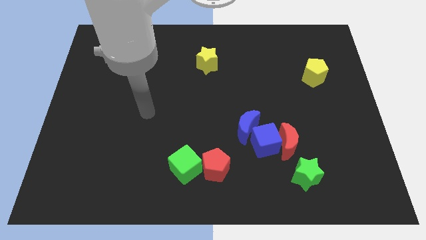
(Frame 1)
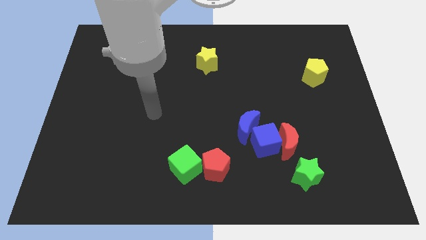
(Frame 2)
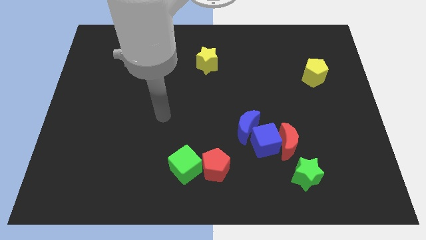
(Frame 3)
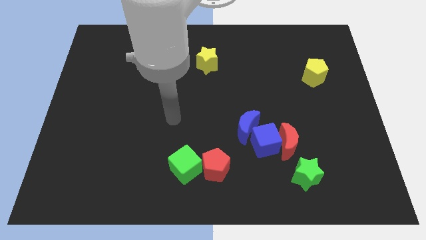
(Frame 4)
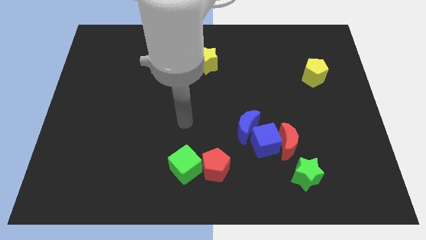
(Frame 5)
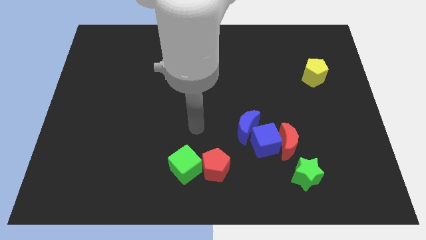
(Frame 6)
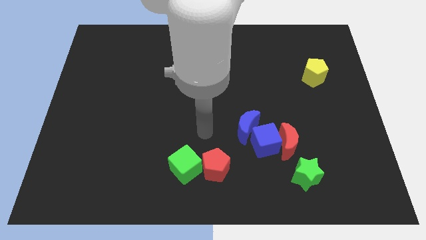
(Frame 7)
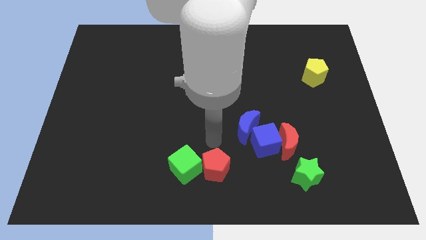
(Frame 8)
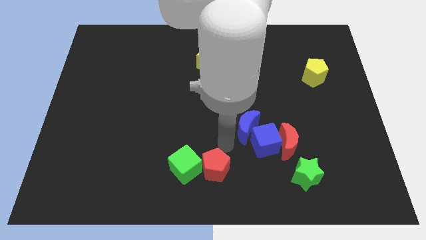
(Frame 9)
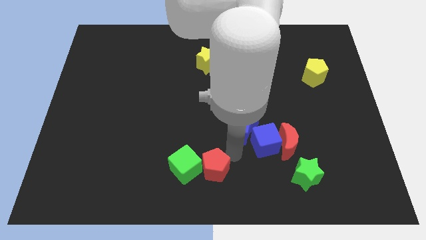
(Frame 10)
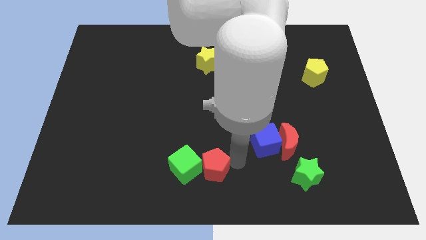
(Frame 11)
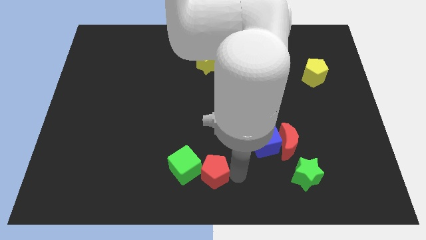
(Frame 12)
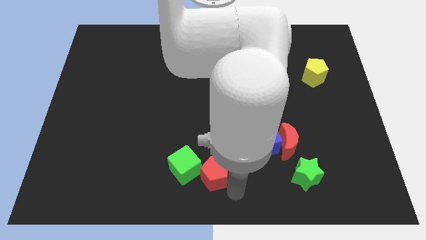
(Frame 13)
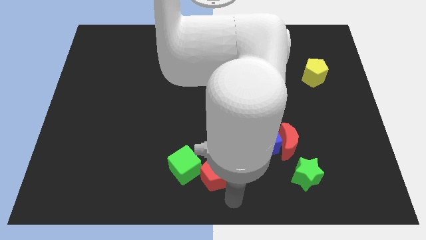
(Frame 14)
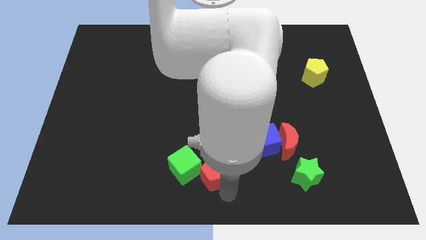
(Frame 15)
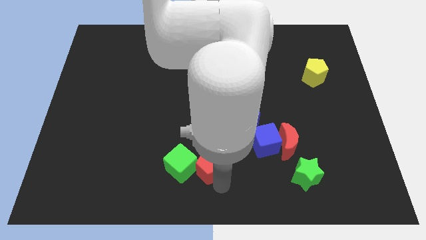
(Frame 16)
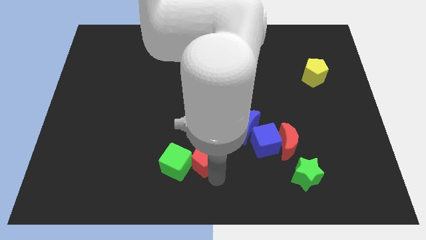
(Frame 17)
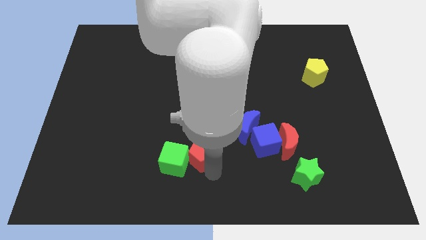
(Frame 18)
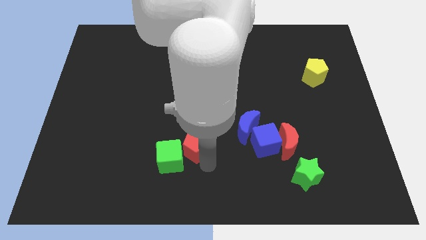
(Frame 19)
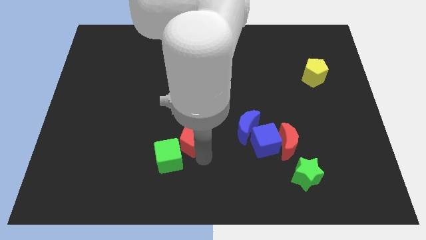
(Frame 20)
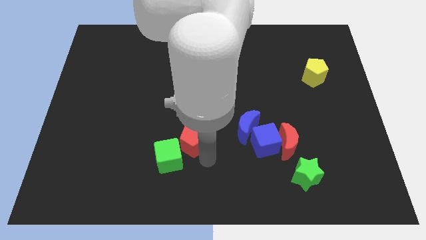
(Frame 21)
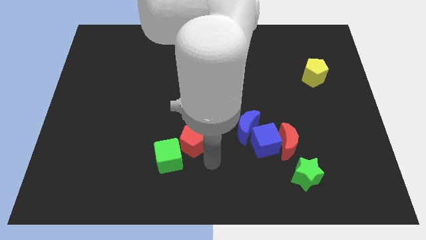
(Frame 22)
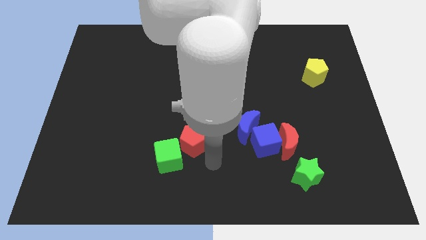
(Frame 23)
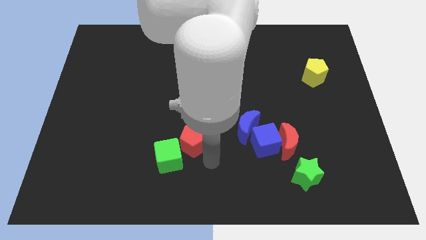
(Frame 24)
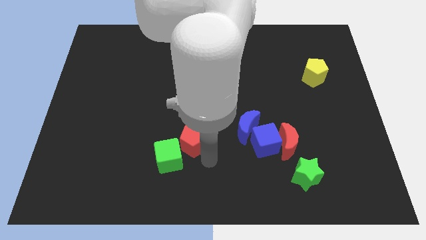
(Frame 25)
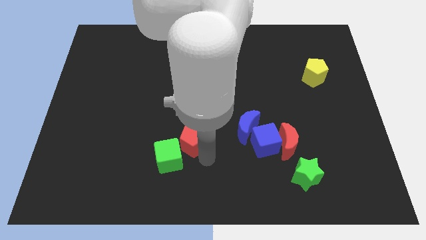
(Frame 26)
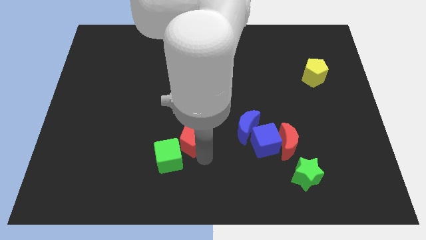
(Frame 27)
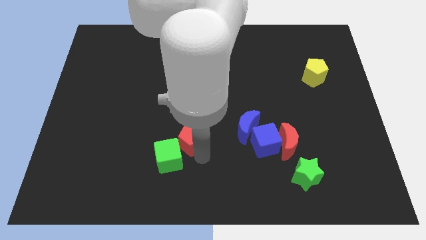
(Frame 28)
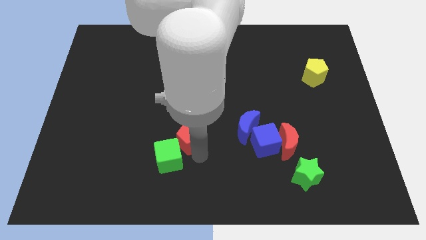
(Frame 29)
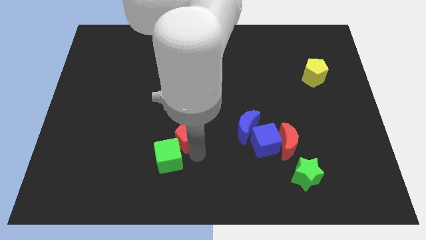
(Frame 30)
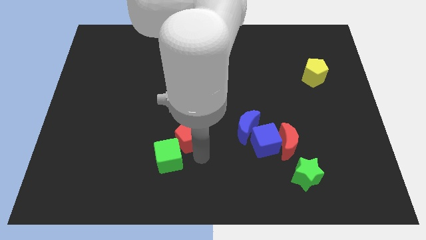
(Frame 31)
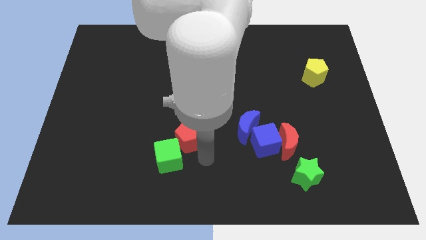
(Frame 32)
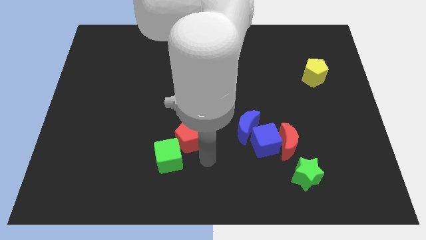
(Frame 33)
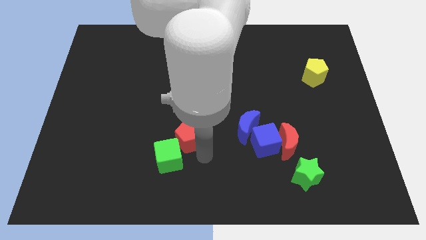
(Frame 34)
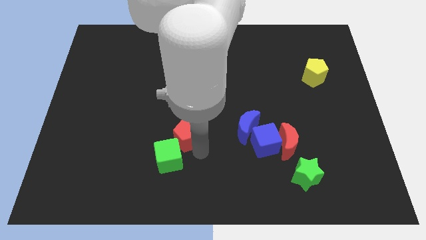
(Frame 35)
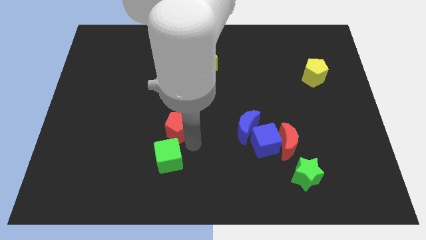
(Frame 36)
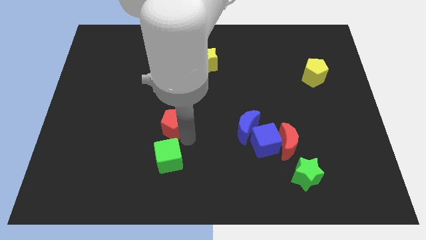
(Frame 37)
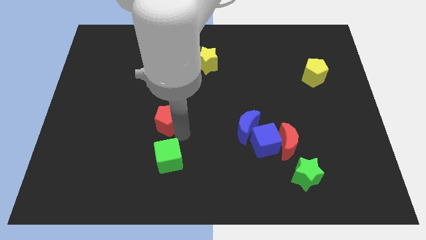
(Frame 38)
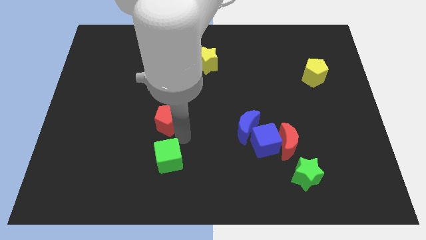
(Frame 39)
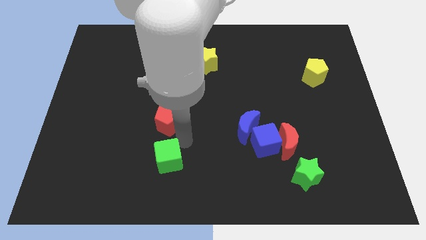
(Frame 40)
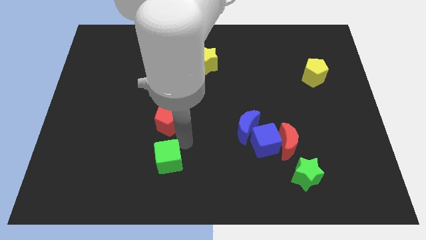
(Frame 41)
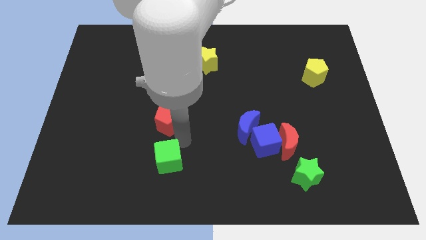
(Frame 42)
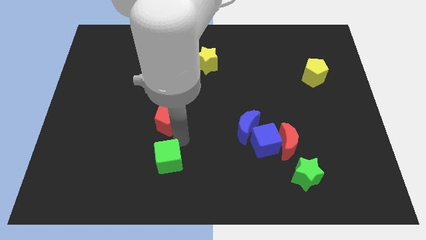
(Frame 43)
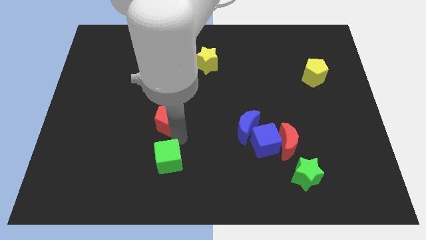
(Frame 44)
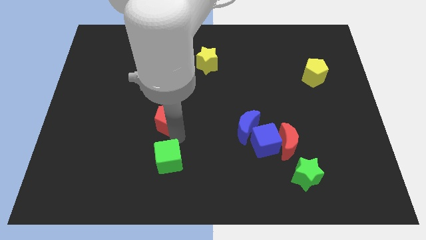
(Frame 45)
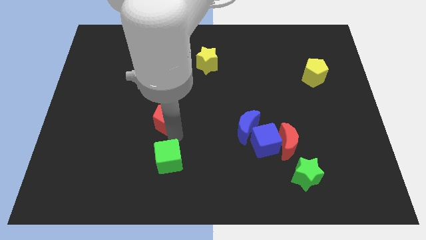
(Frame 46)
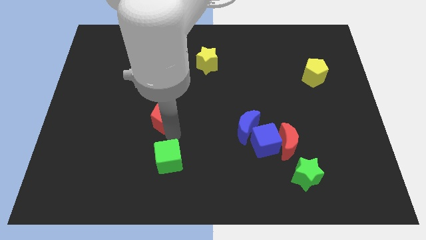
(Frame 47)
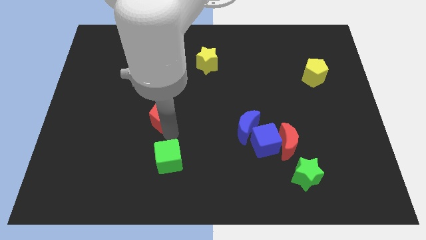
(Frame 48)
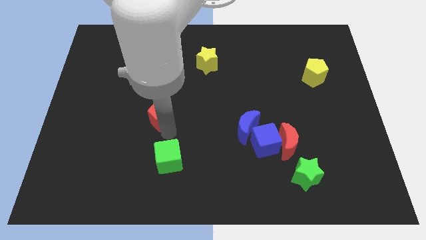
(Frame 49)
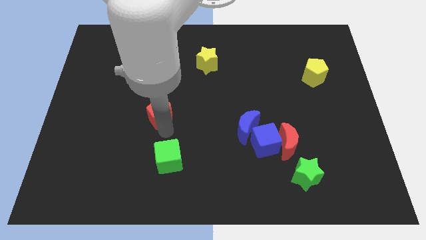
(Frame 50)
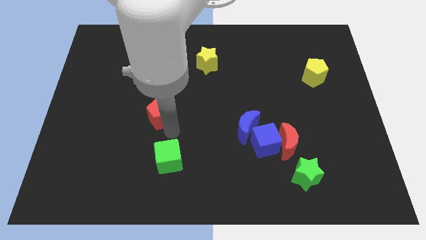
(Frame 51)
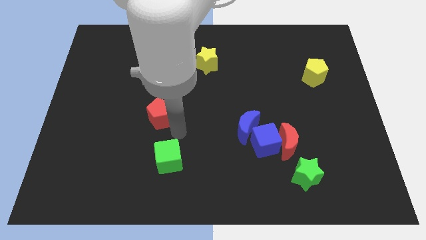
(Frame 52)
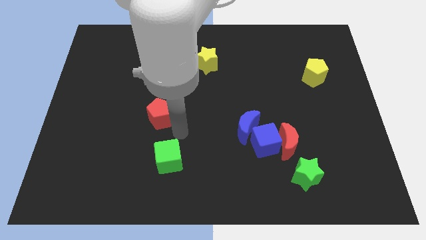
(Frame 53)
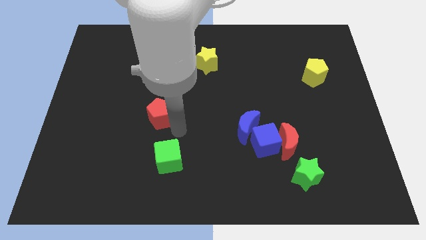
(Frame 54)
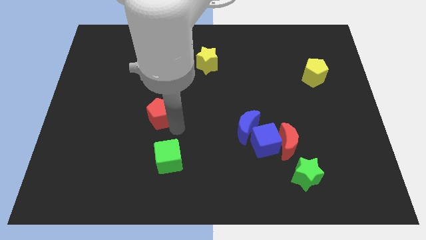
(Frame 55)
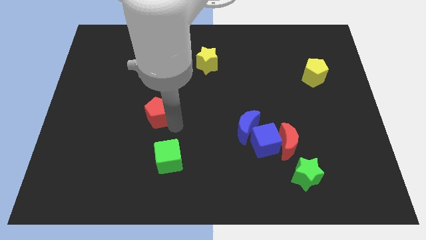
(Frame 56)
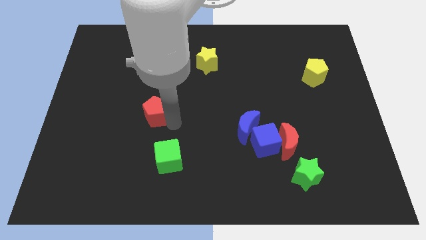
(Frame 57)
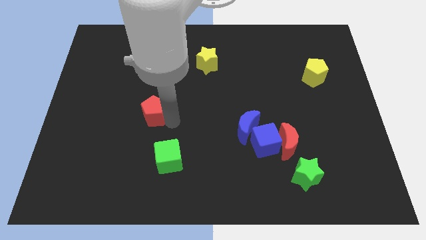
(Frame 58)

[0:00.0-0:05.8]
slide the red pentagon up and left diagonally

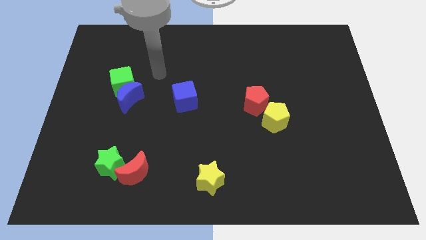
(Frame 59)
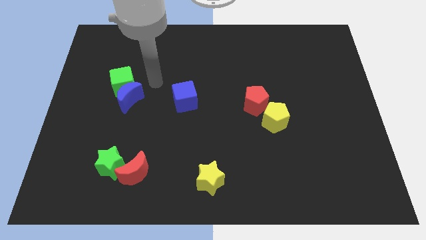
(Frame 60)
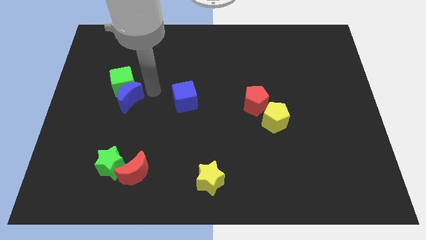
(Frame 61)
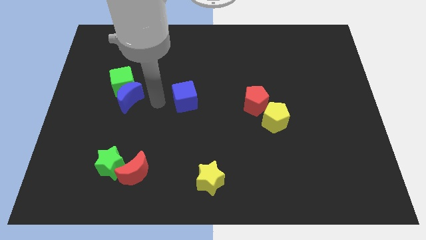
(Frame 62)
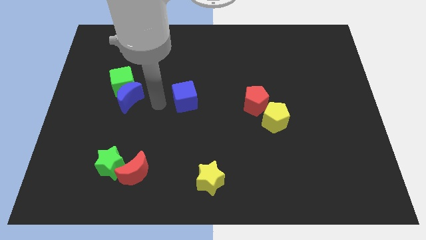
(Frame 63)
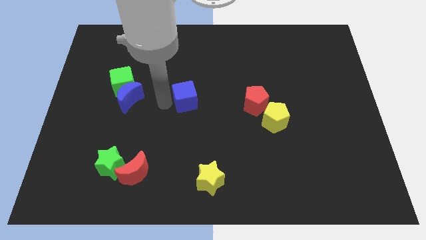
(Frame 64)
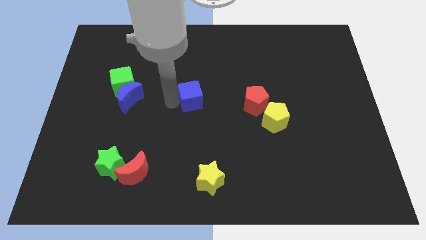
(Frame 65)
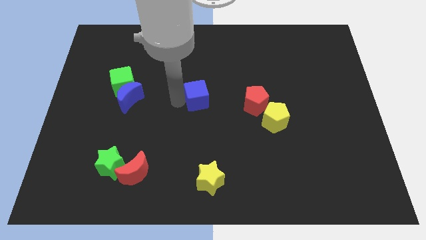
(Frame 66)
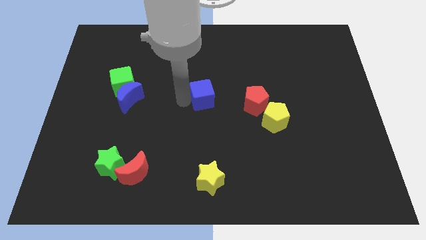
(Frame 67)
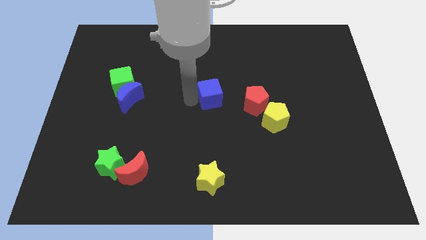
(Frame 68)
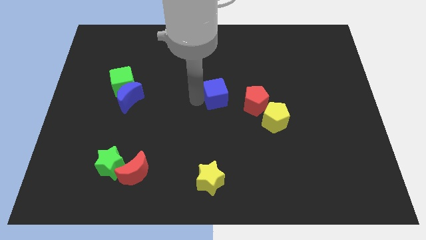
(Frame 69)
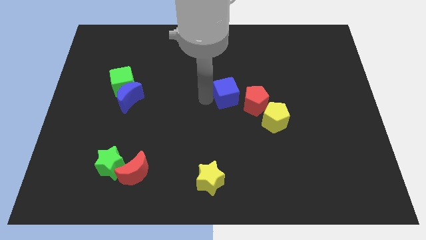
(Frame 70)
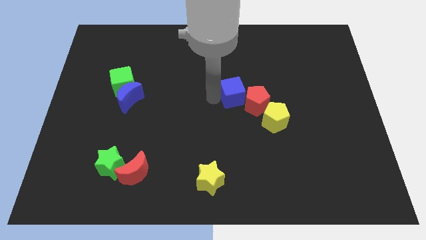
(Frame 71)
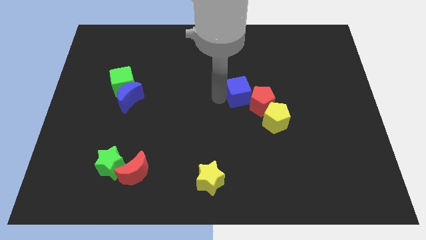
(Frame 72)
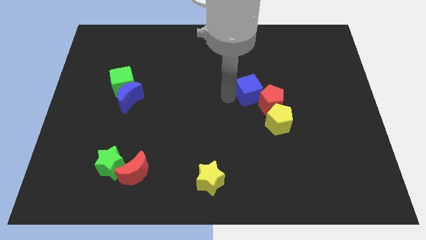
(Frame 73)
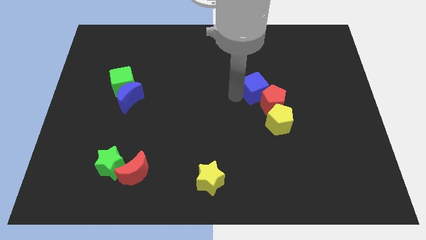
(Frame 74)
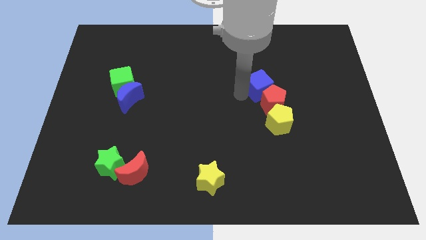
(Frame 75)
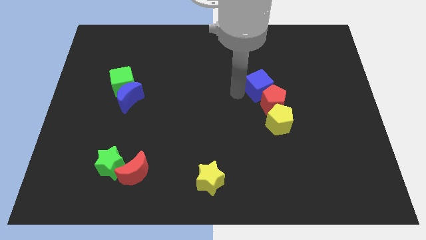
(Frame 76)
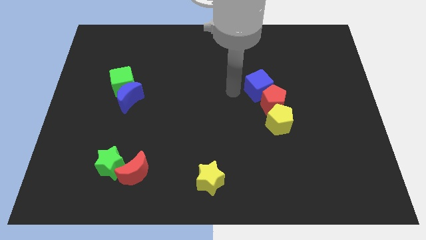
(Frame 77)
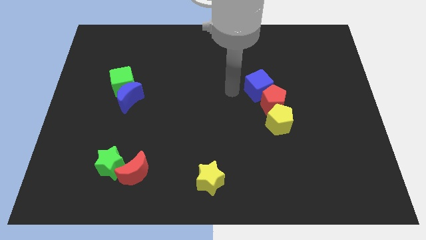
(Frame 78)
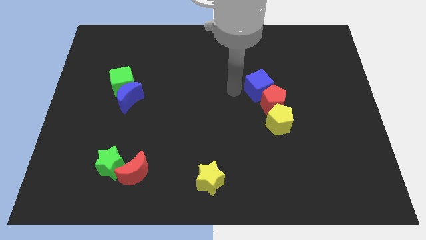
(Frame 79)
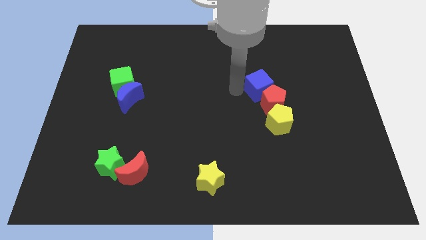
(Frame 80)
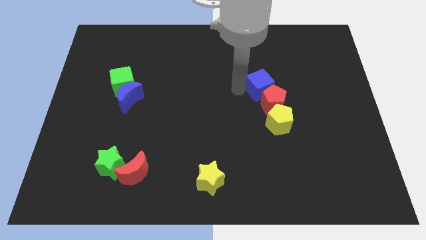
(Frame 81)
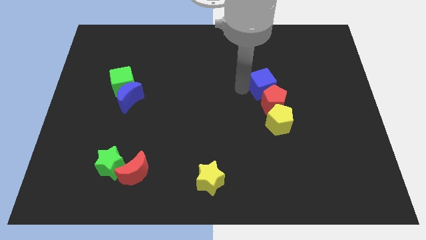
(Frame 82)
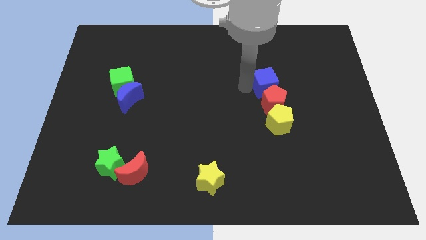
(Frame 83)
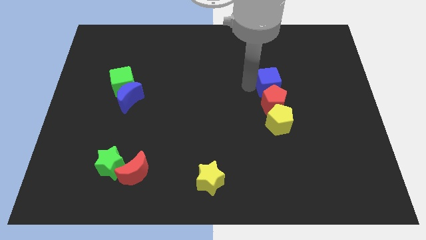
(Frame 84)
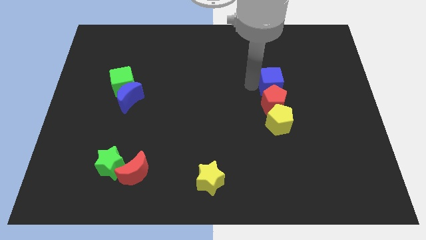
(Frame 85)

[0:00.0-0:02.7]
slide the blue cube right
